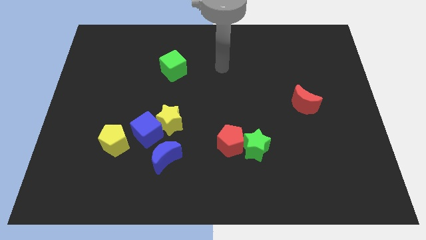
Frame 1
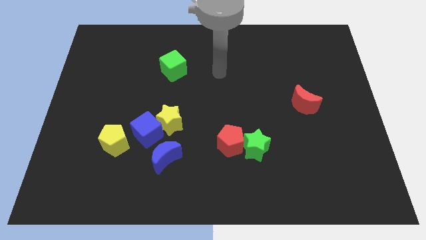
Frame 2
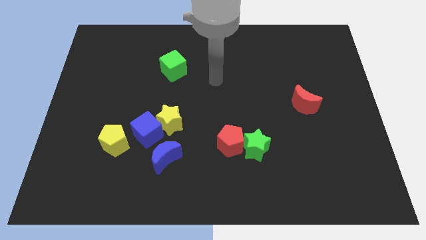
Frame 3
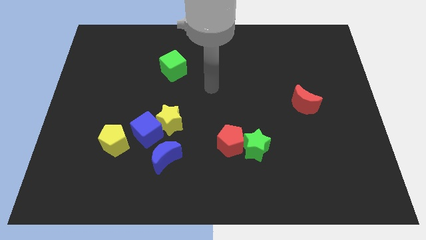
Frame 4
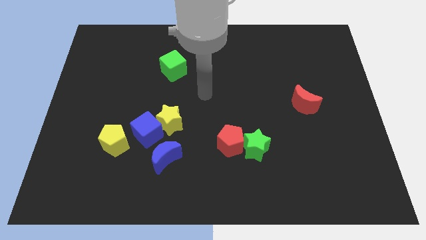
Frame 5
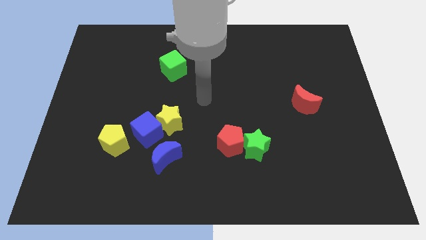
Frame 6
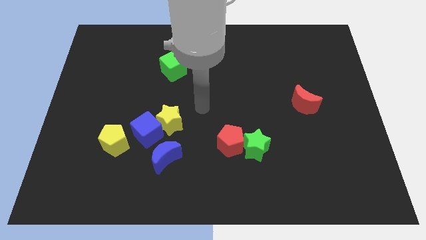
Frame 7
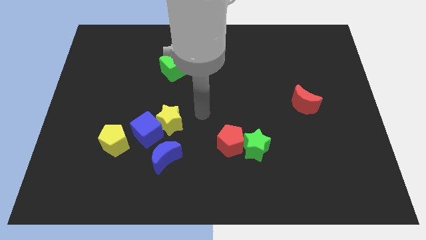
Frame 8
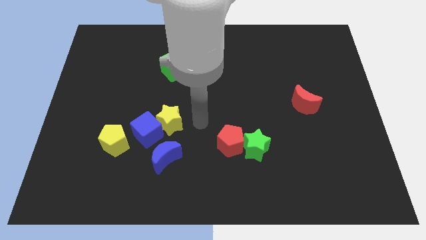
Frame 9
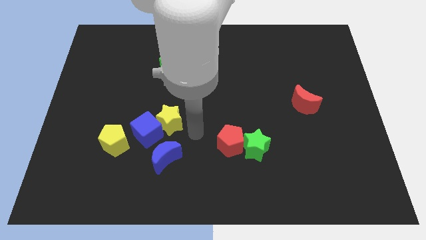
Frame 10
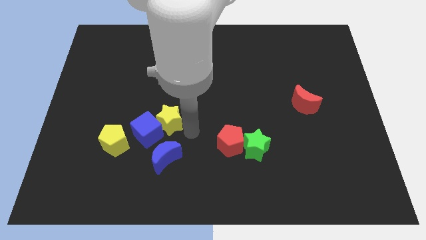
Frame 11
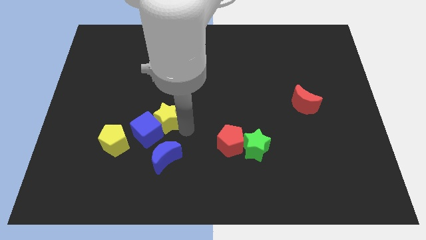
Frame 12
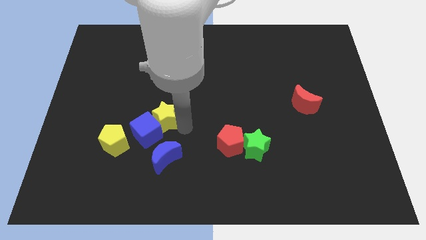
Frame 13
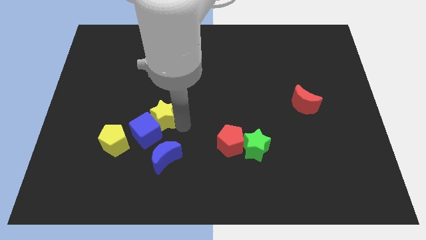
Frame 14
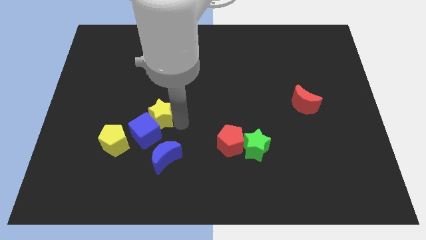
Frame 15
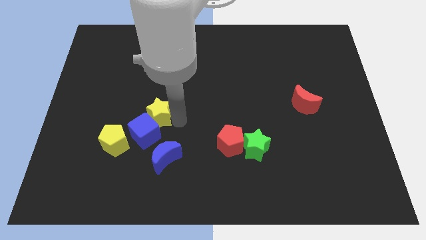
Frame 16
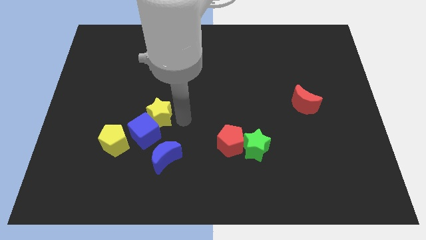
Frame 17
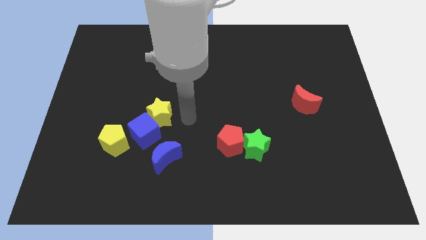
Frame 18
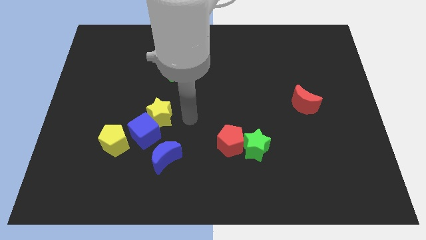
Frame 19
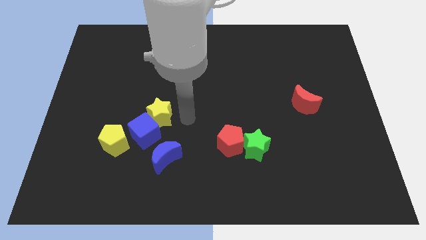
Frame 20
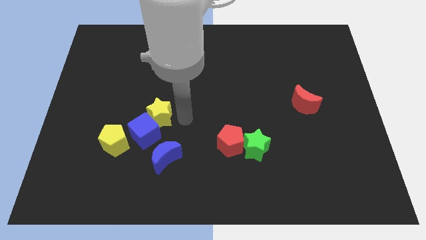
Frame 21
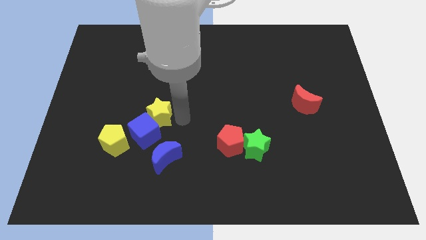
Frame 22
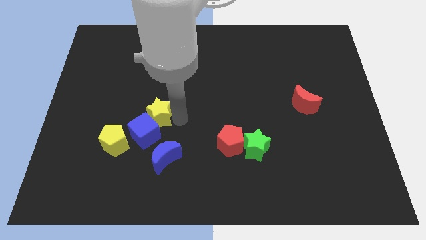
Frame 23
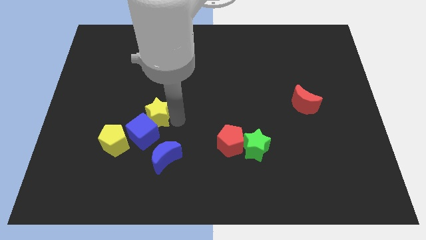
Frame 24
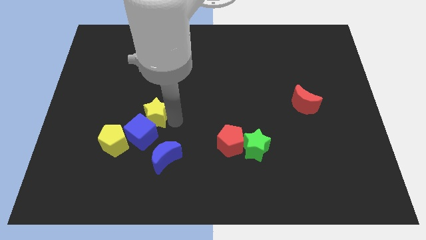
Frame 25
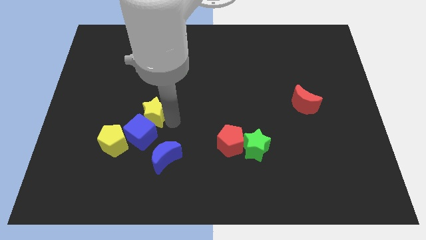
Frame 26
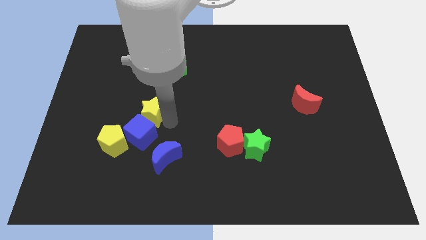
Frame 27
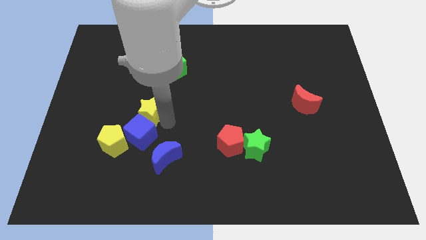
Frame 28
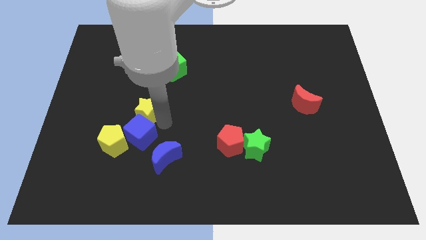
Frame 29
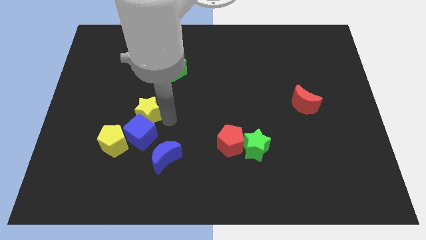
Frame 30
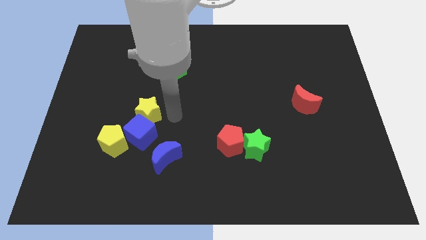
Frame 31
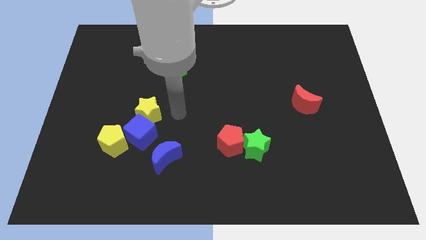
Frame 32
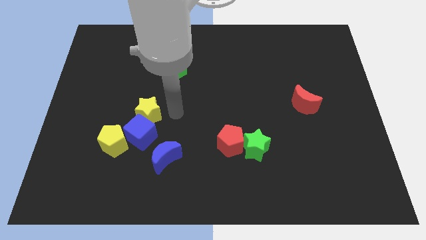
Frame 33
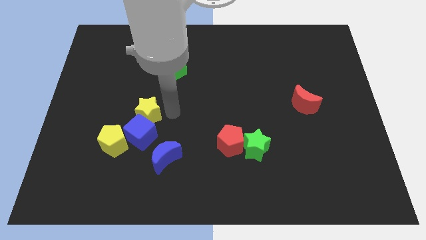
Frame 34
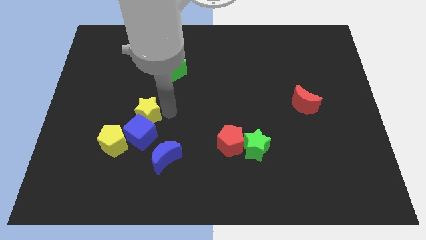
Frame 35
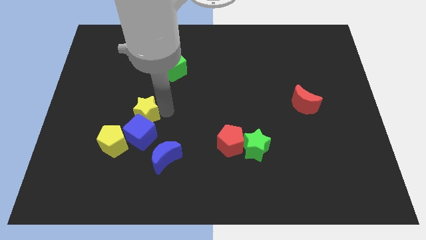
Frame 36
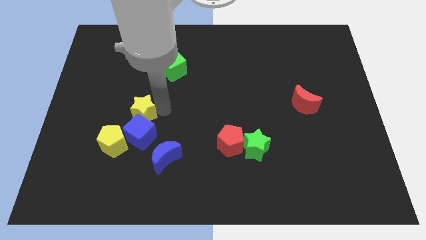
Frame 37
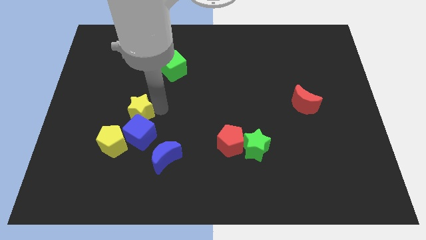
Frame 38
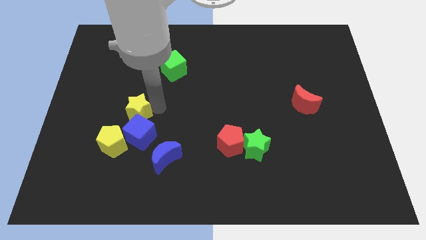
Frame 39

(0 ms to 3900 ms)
move the yellow star a little bit left

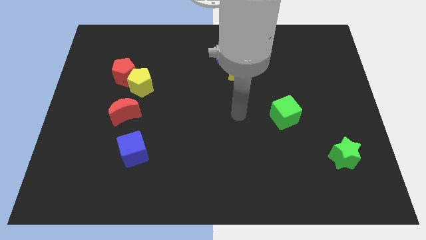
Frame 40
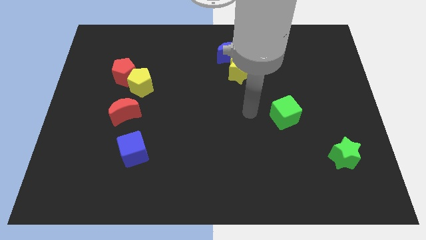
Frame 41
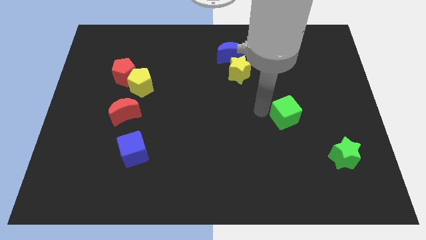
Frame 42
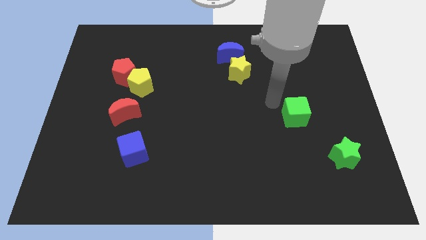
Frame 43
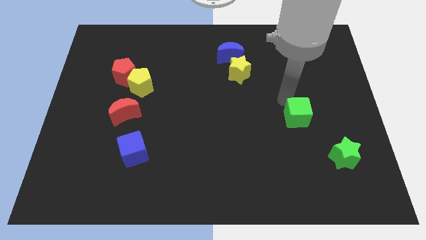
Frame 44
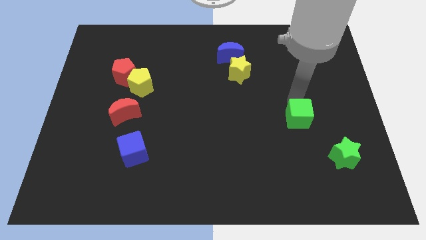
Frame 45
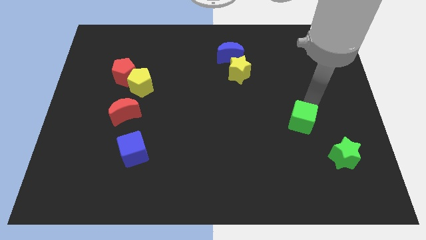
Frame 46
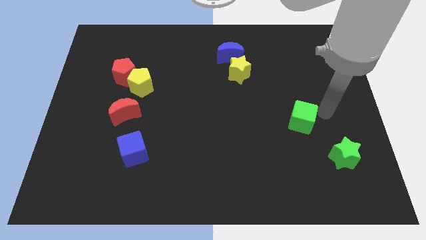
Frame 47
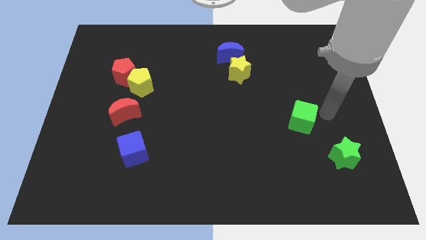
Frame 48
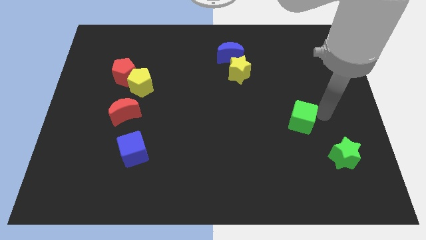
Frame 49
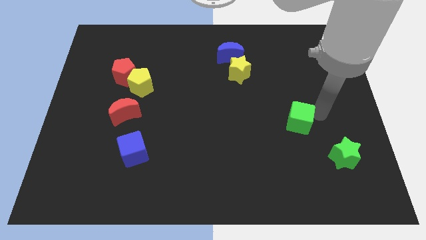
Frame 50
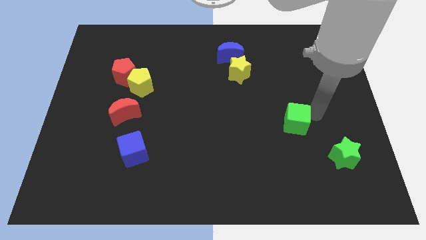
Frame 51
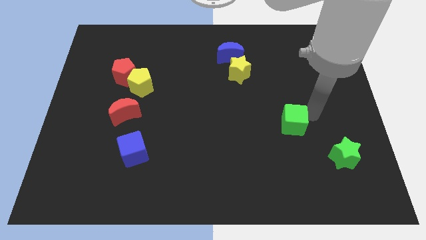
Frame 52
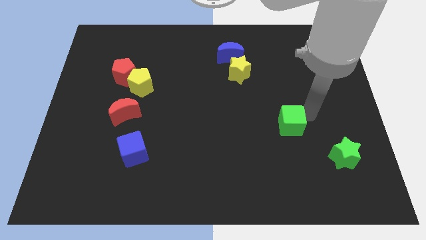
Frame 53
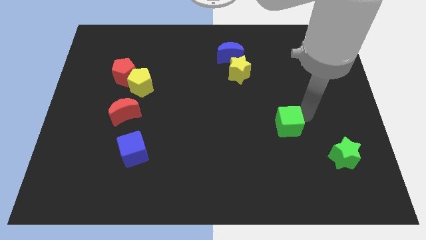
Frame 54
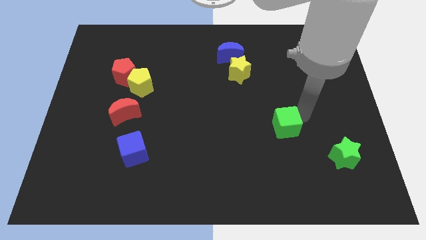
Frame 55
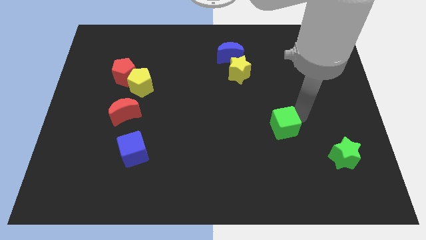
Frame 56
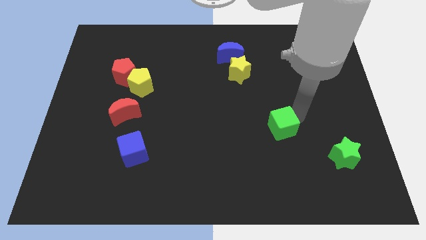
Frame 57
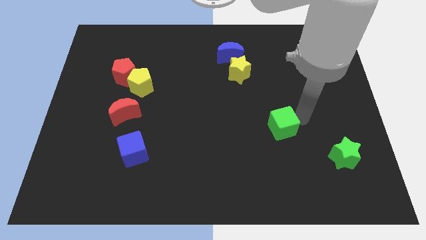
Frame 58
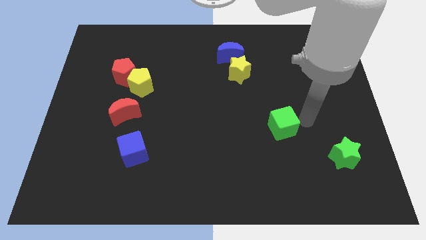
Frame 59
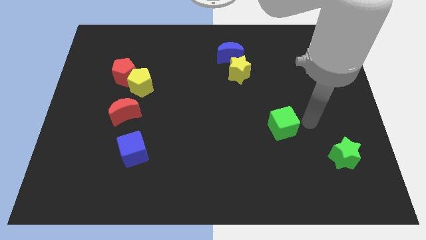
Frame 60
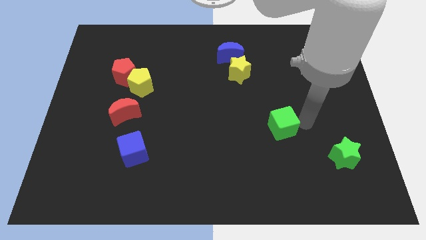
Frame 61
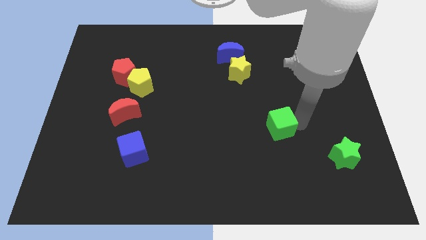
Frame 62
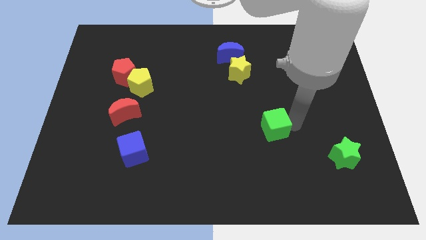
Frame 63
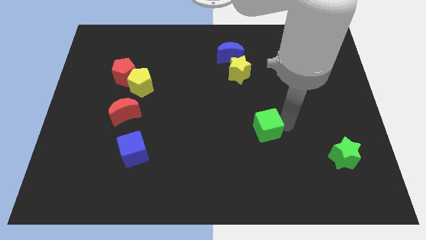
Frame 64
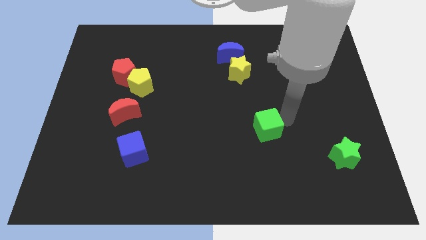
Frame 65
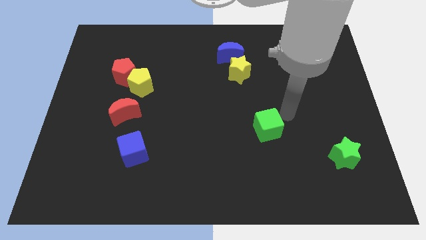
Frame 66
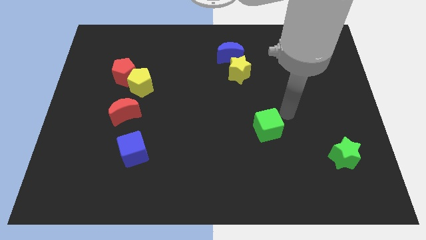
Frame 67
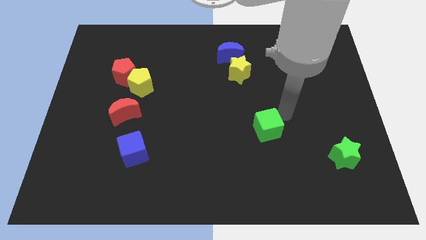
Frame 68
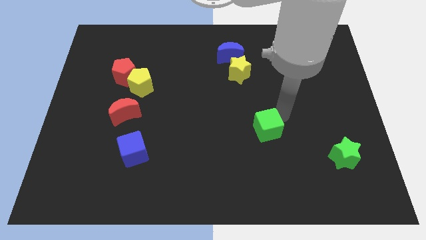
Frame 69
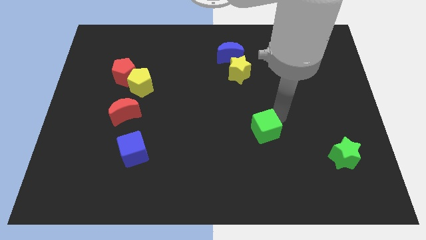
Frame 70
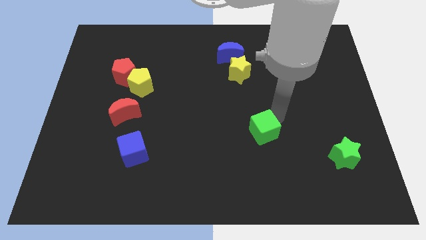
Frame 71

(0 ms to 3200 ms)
slightly move the green cube downwards and left

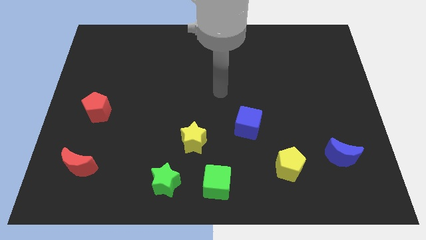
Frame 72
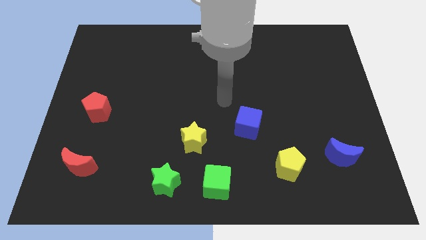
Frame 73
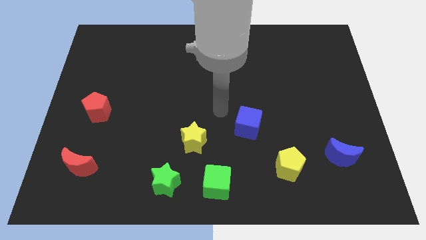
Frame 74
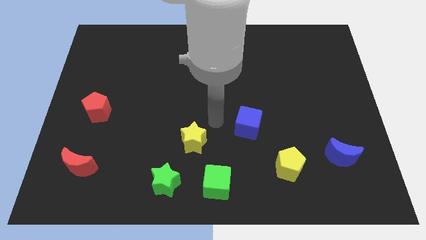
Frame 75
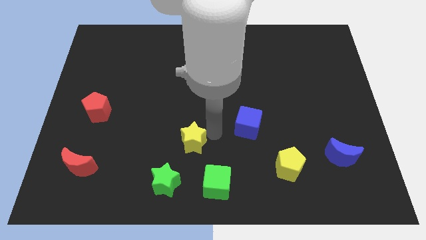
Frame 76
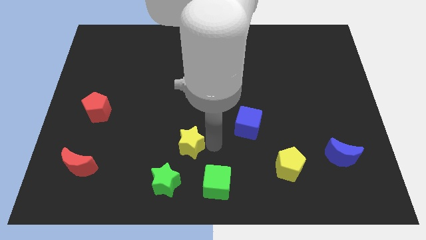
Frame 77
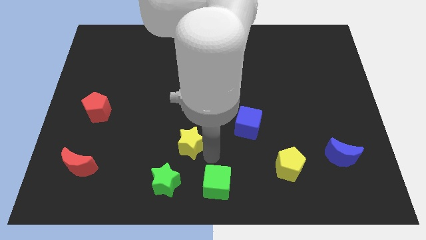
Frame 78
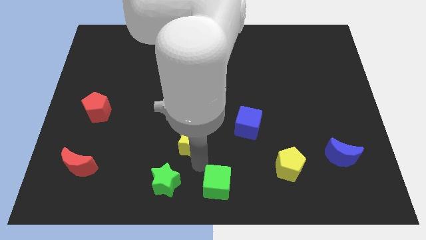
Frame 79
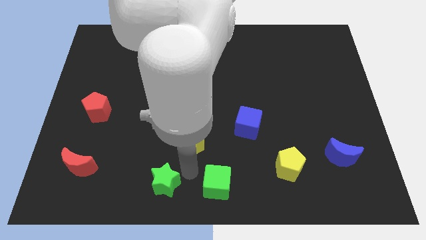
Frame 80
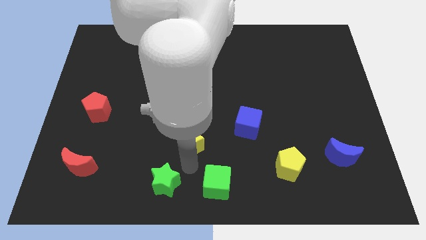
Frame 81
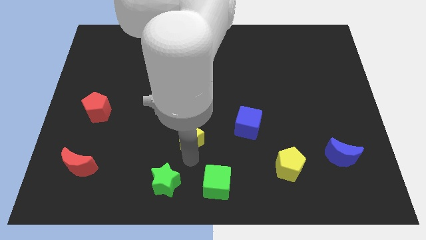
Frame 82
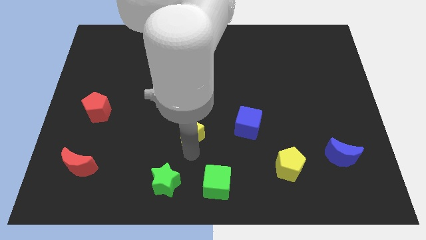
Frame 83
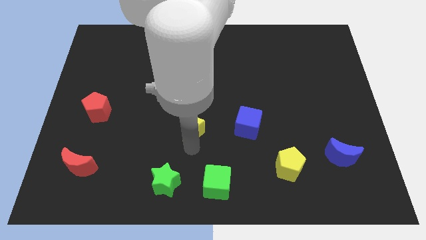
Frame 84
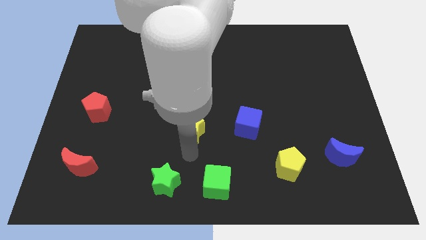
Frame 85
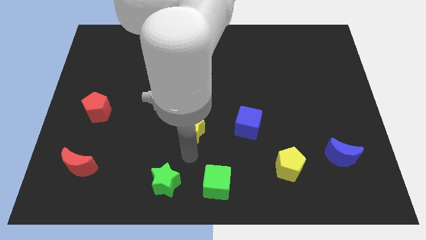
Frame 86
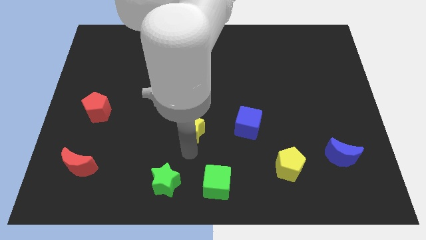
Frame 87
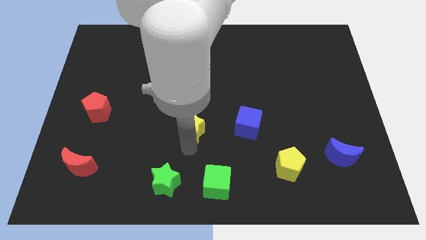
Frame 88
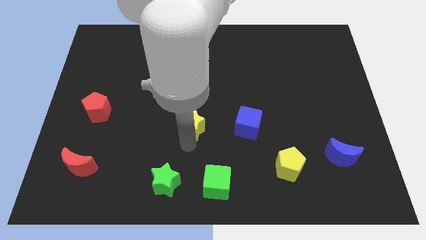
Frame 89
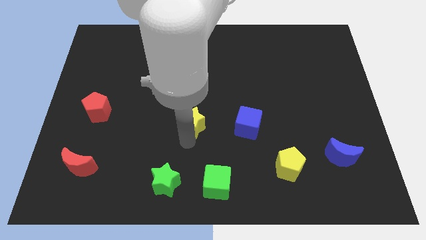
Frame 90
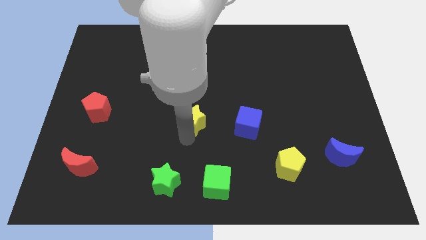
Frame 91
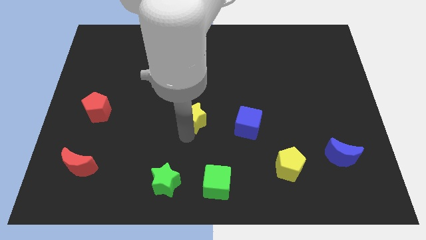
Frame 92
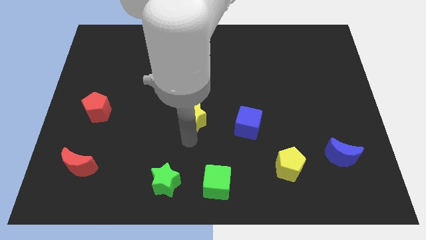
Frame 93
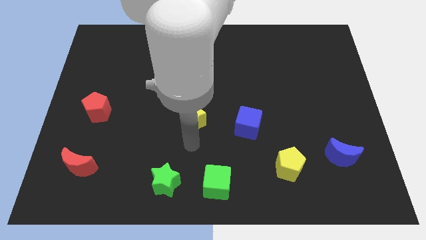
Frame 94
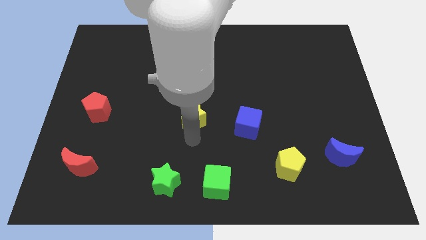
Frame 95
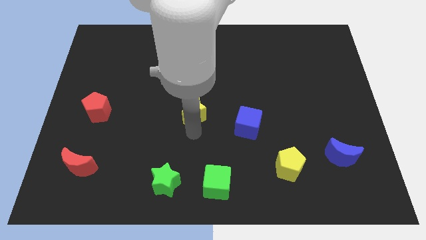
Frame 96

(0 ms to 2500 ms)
move the yellow star upwards slightly
